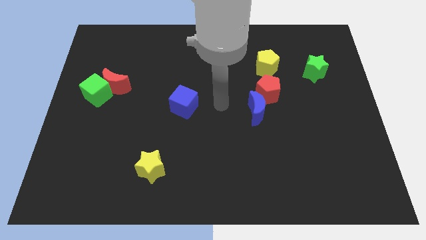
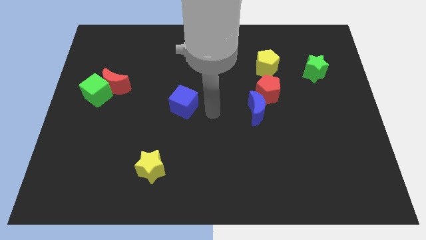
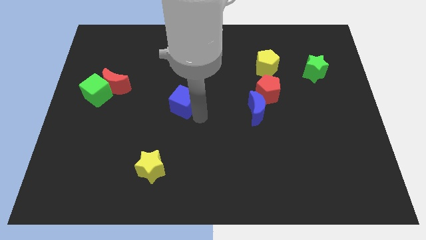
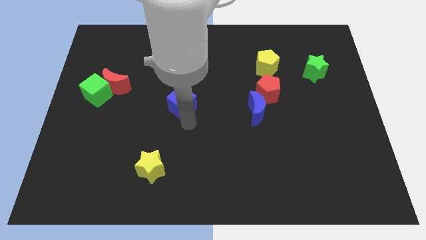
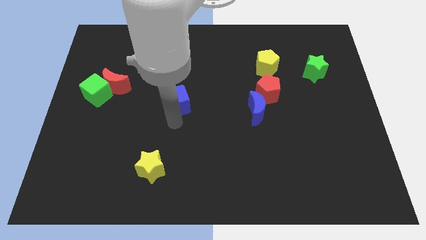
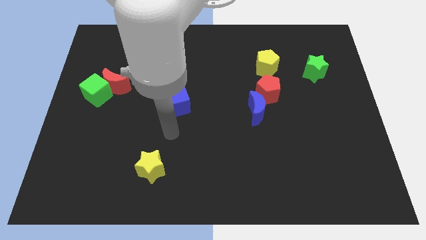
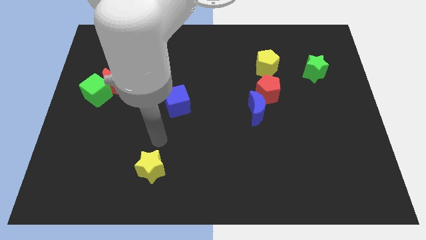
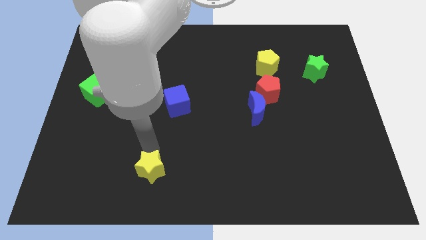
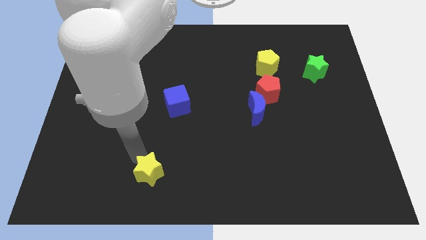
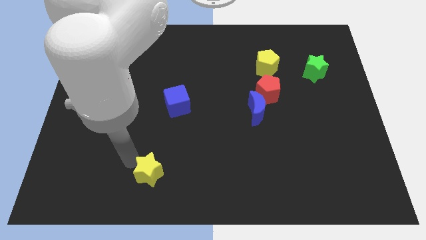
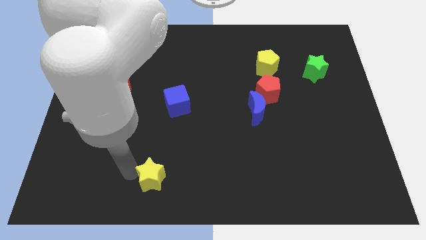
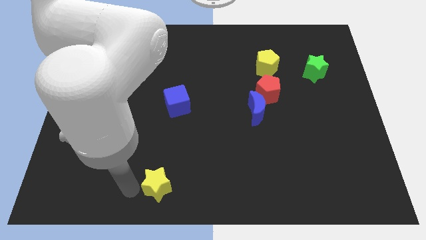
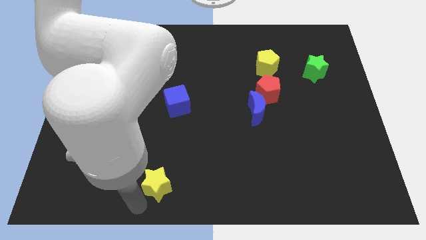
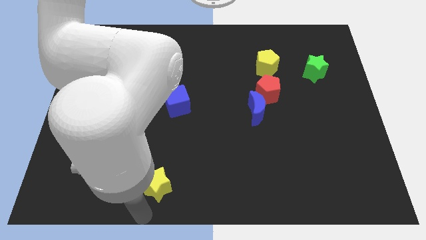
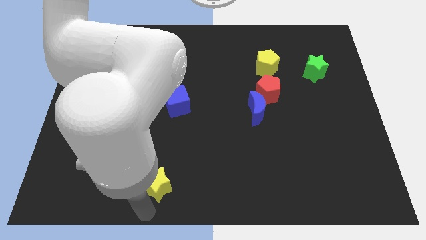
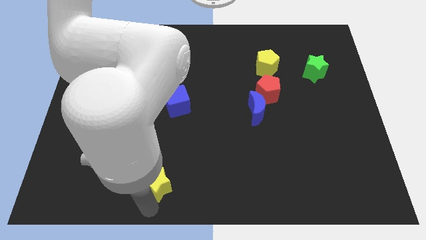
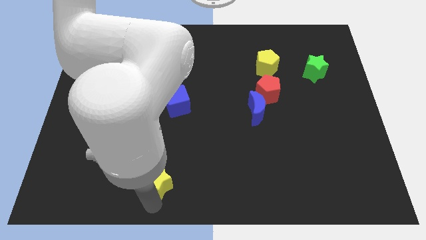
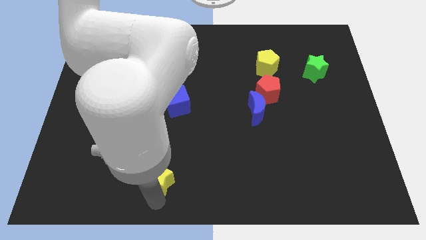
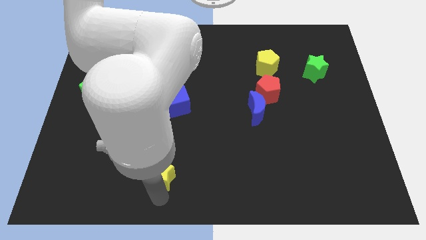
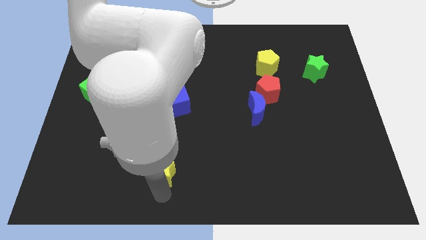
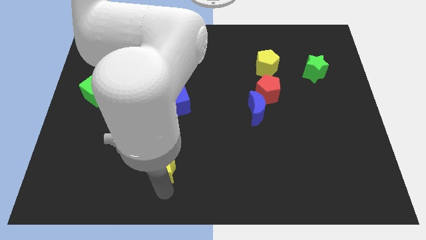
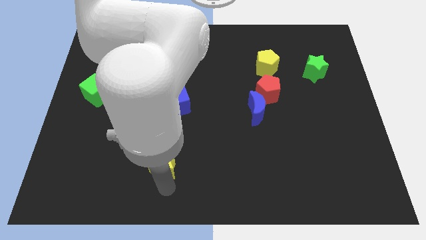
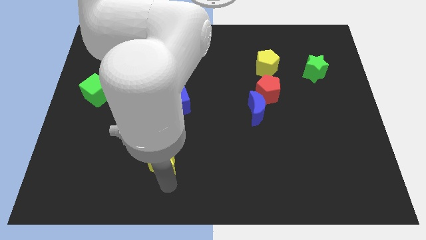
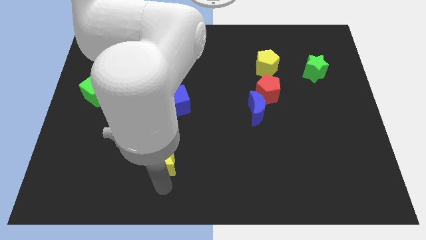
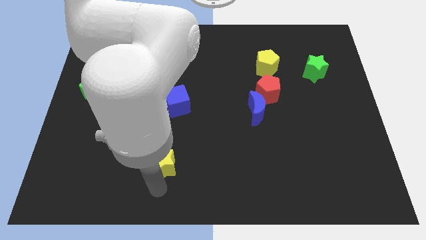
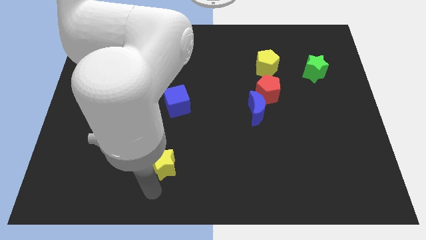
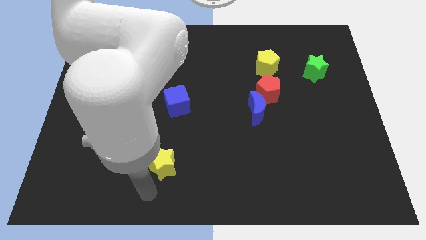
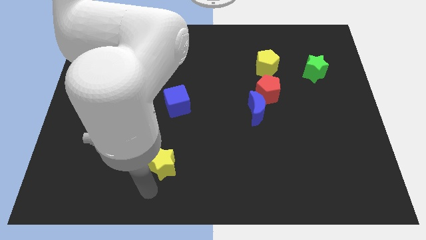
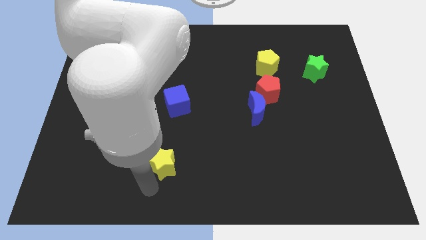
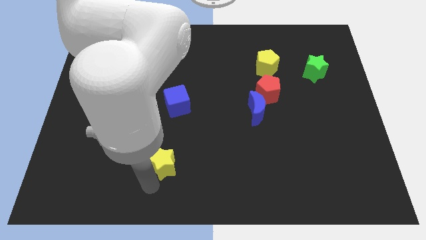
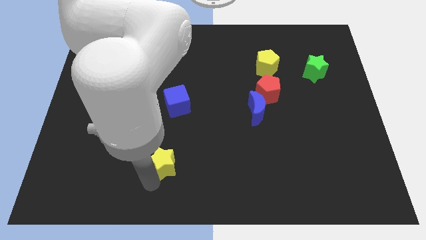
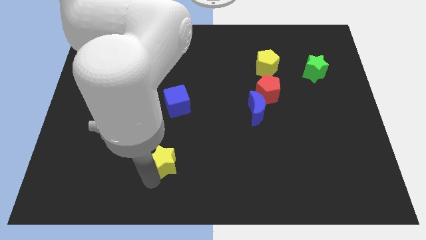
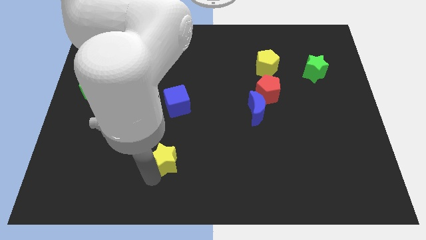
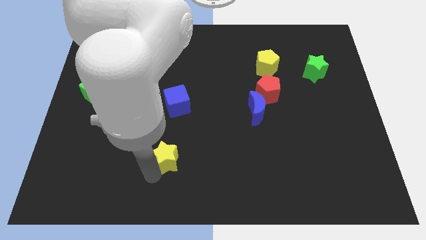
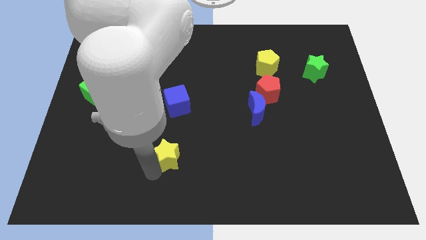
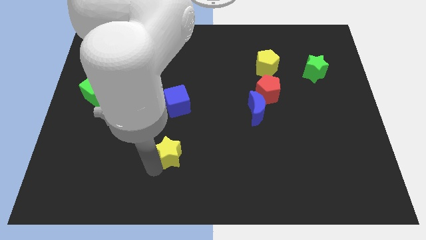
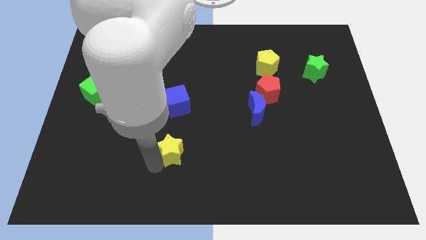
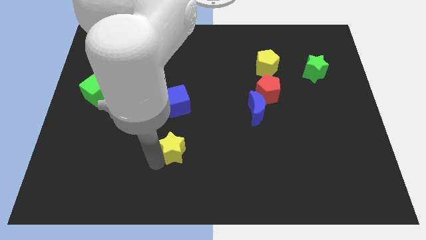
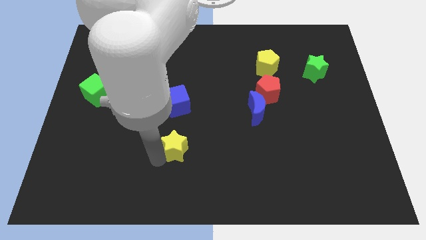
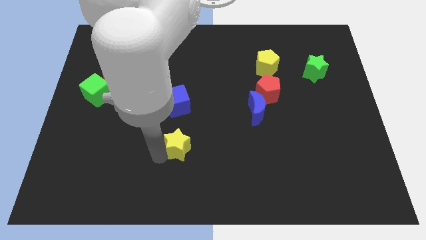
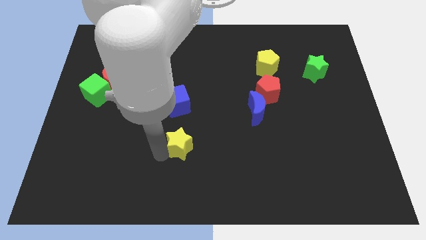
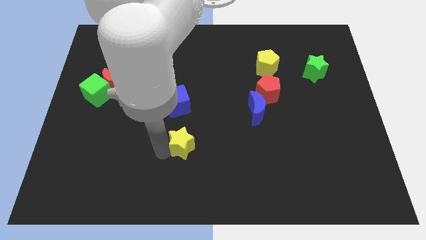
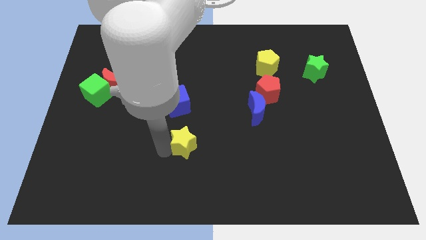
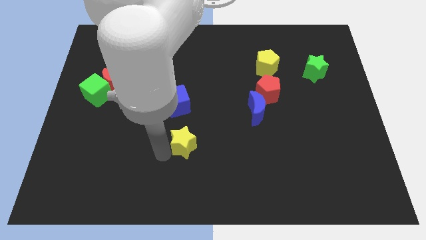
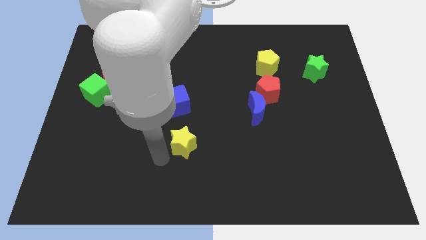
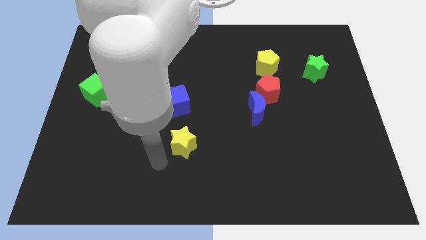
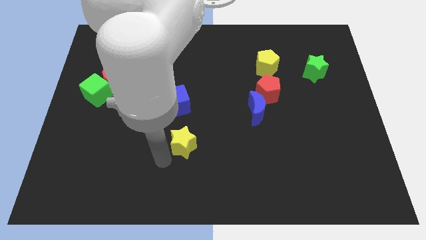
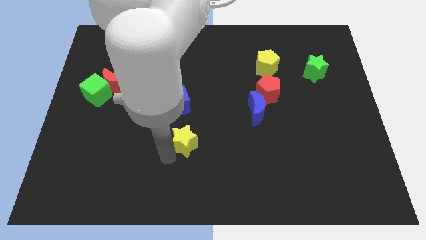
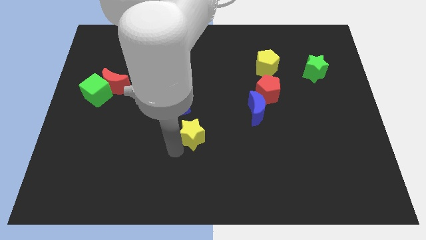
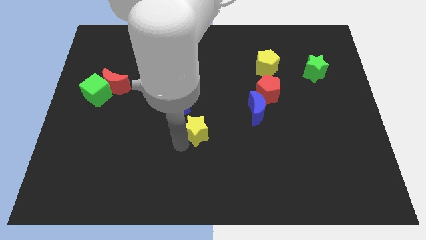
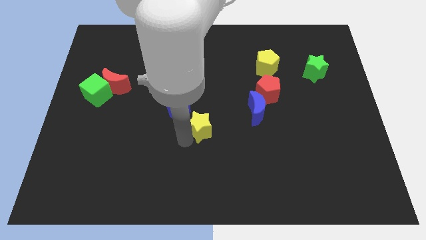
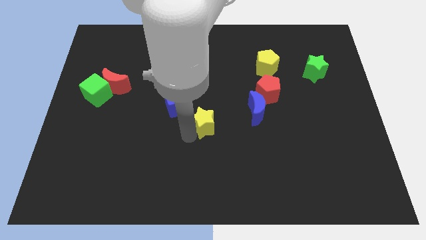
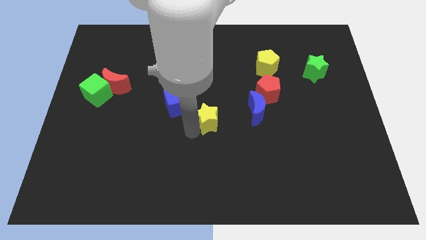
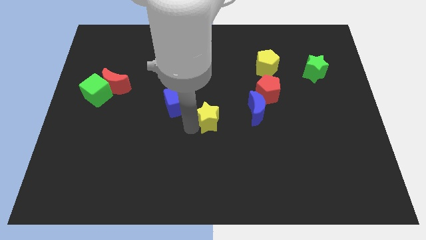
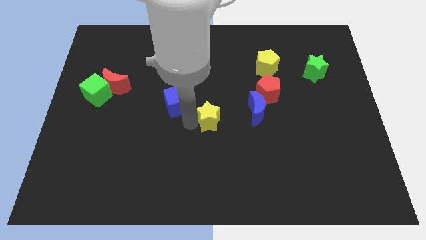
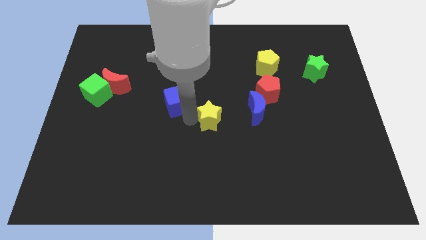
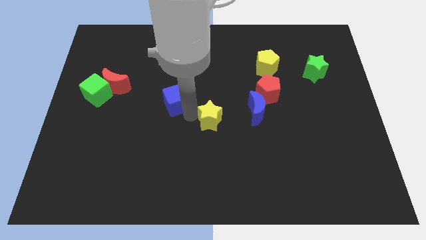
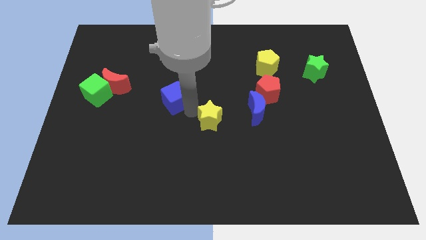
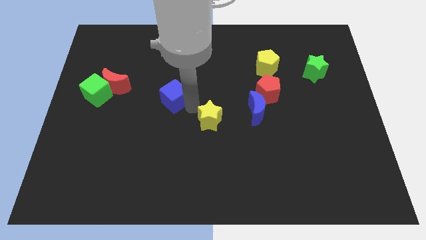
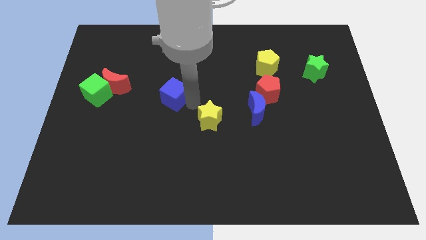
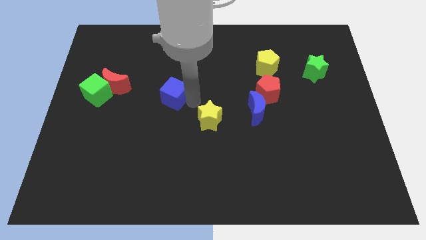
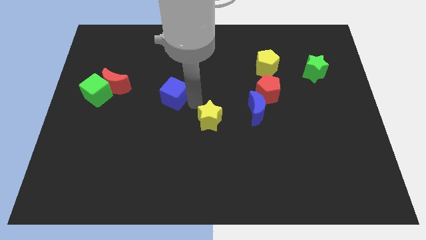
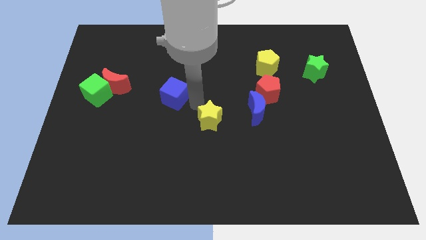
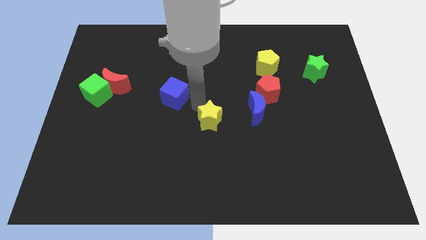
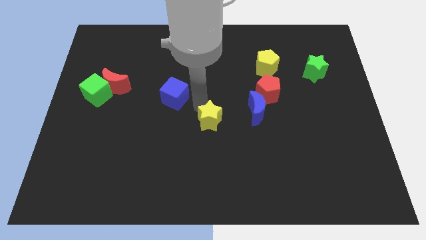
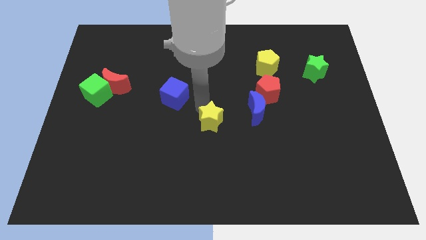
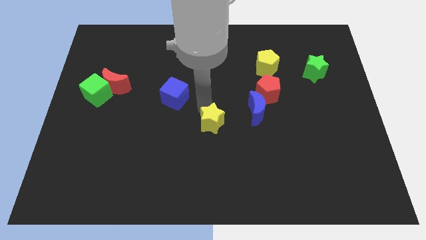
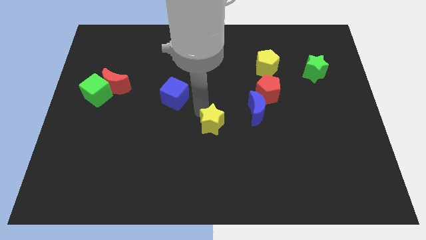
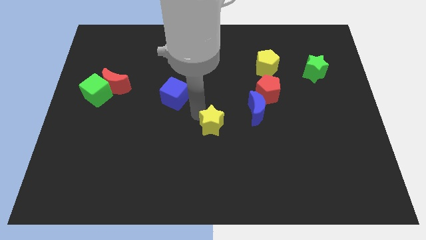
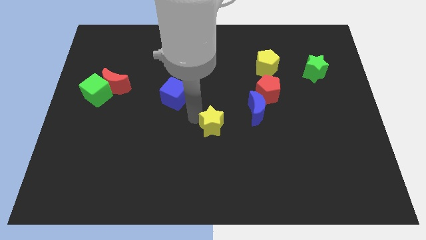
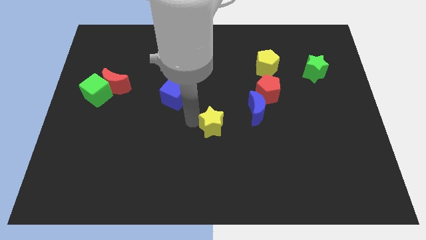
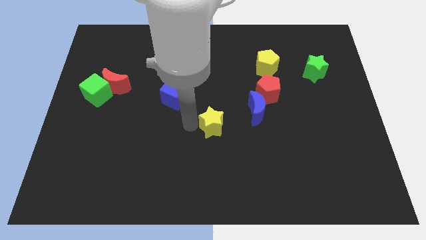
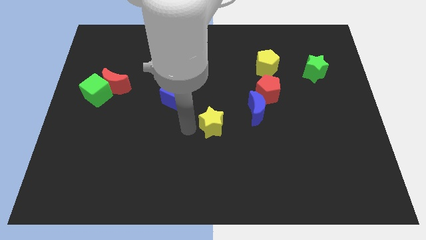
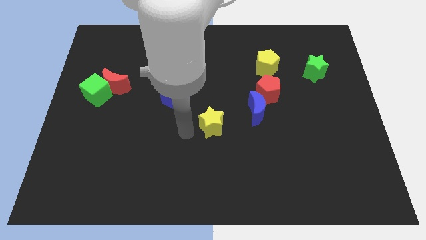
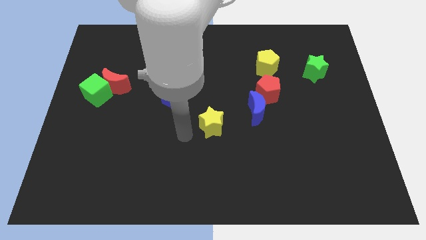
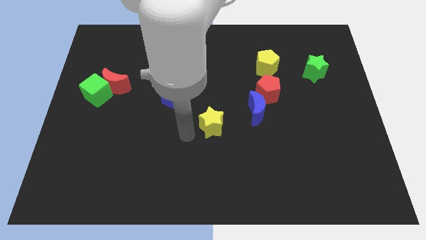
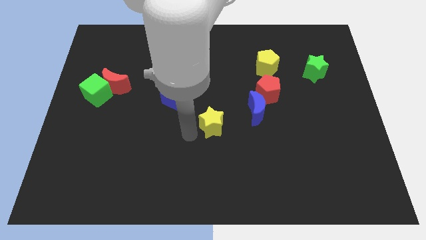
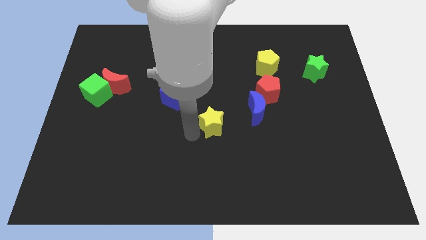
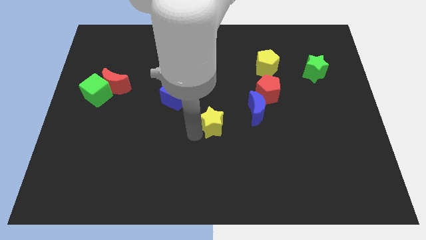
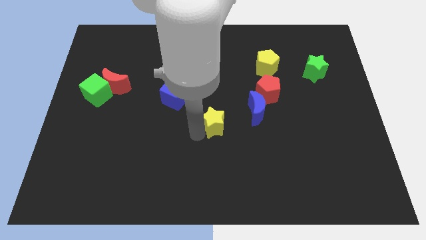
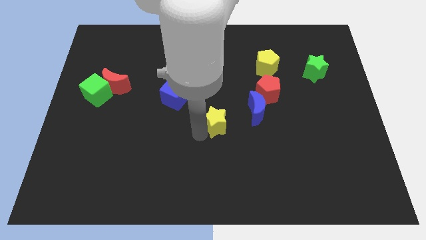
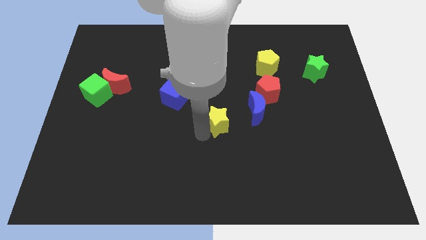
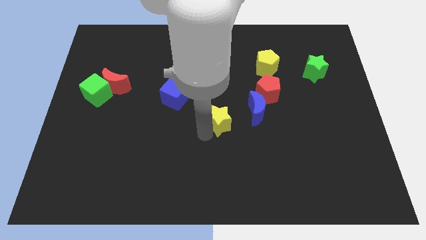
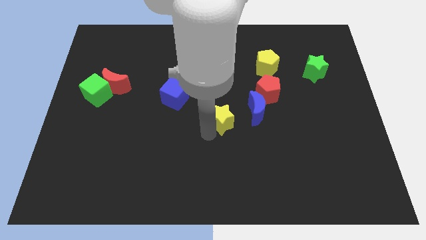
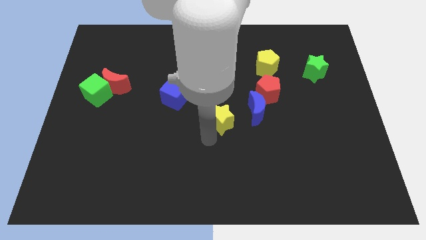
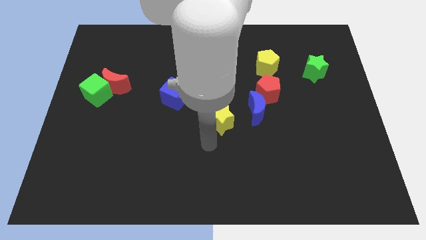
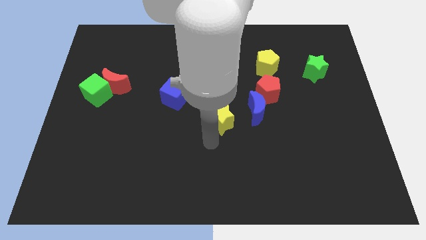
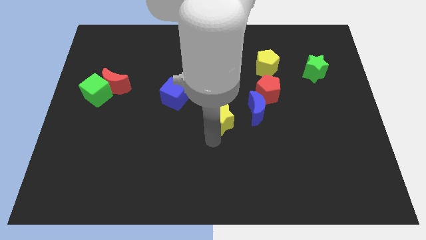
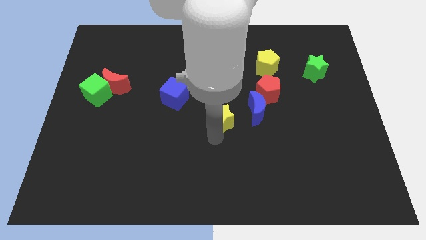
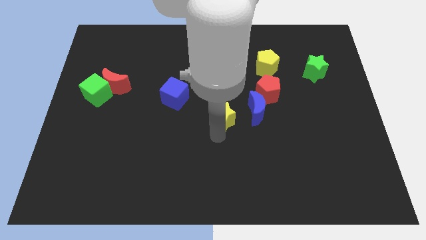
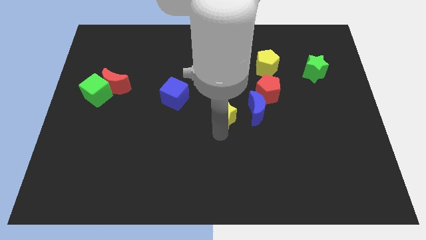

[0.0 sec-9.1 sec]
move the yellow star up and right diagonally
